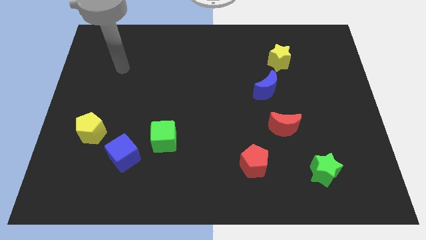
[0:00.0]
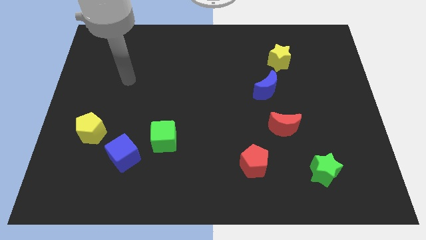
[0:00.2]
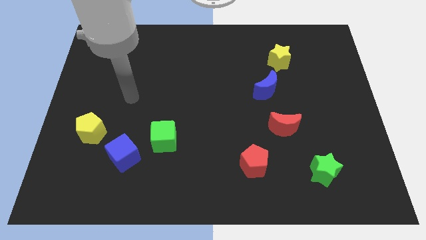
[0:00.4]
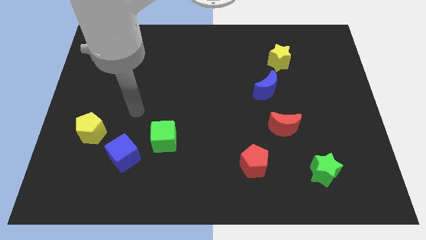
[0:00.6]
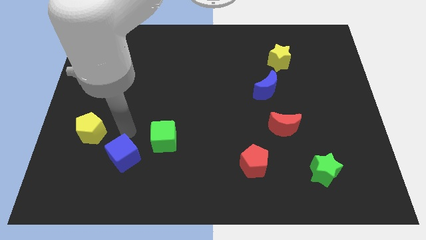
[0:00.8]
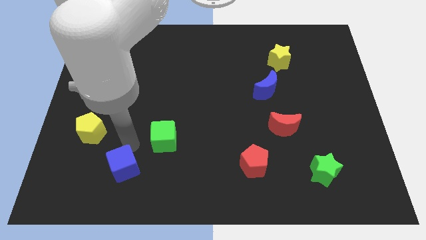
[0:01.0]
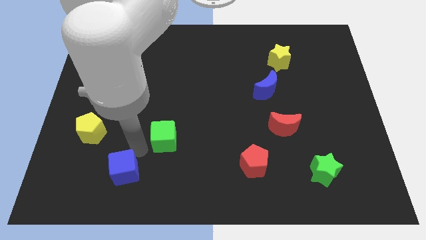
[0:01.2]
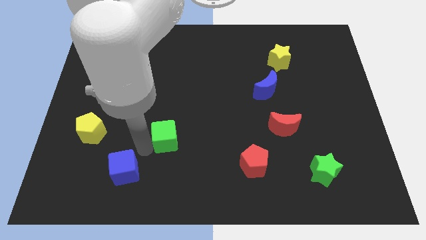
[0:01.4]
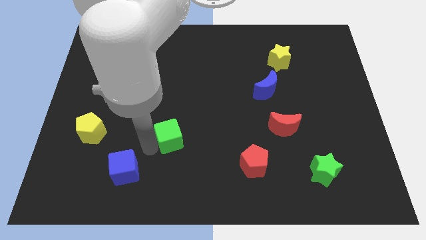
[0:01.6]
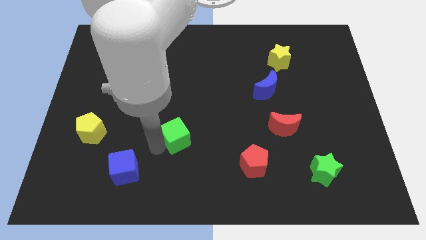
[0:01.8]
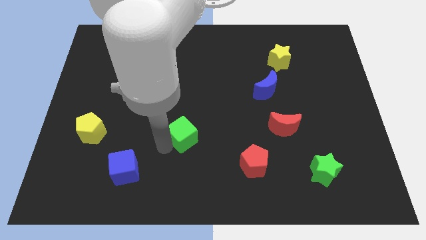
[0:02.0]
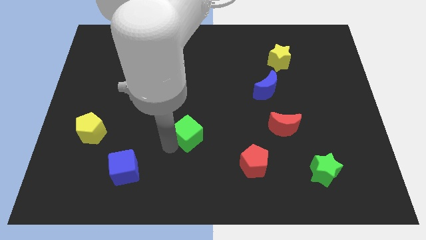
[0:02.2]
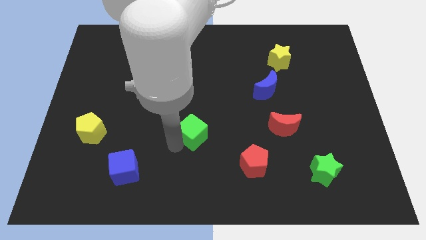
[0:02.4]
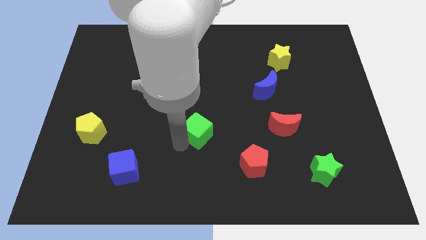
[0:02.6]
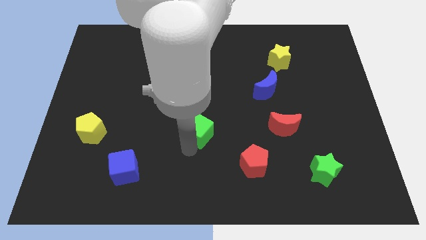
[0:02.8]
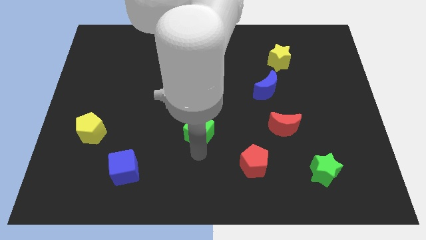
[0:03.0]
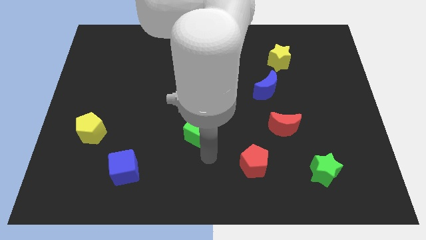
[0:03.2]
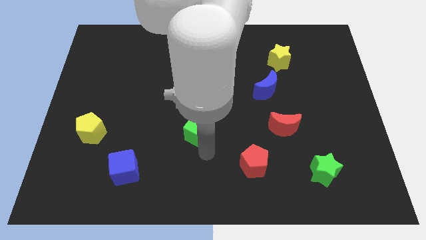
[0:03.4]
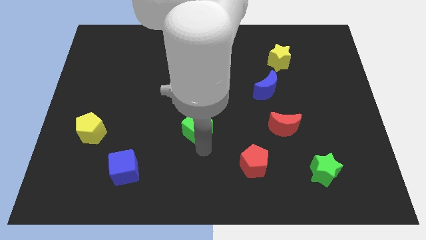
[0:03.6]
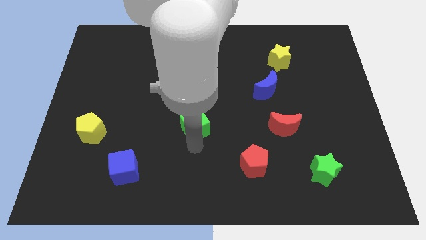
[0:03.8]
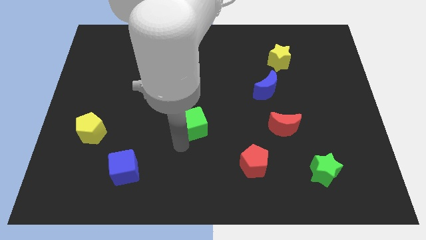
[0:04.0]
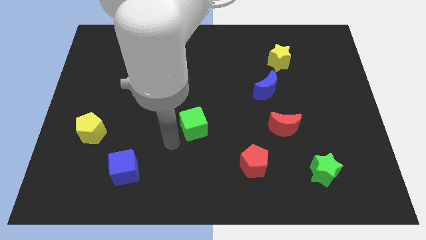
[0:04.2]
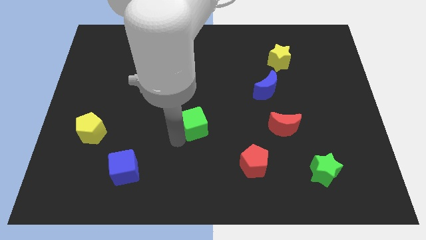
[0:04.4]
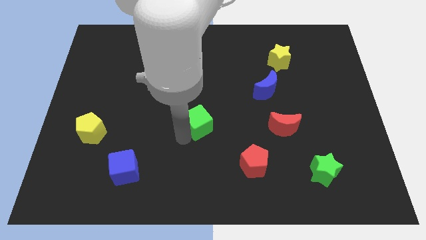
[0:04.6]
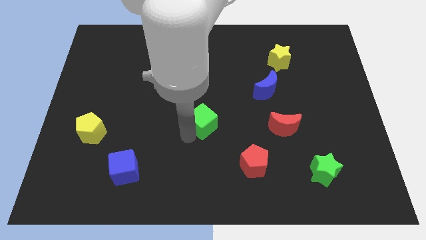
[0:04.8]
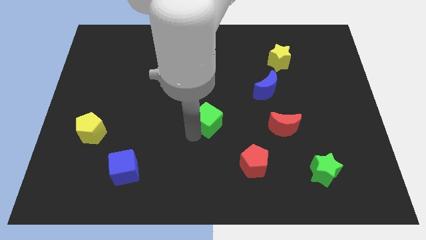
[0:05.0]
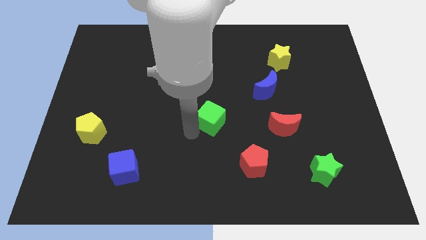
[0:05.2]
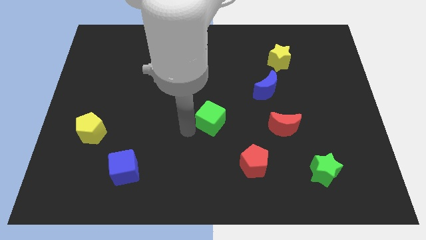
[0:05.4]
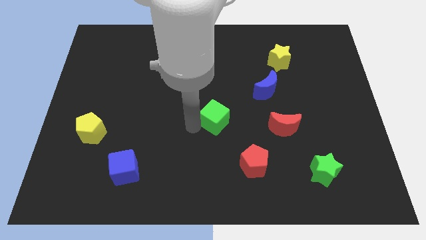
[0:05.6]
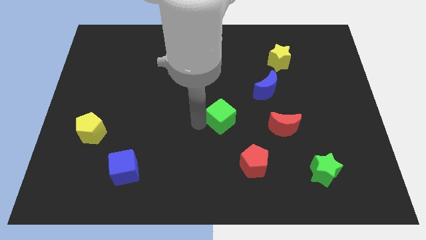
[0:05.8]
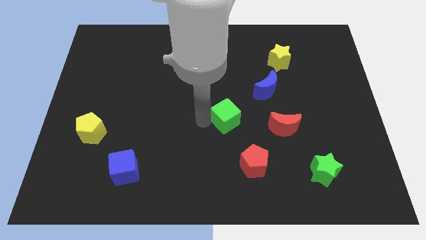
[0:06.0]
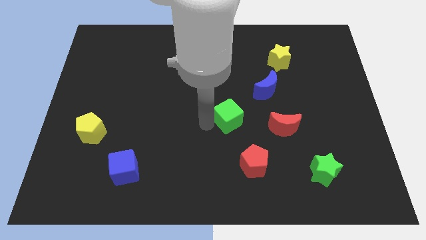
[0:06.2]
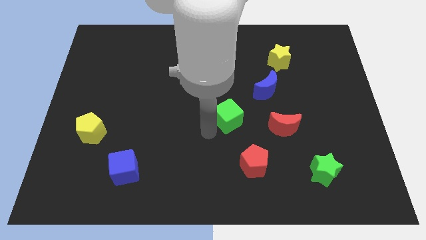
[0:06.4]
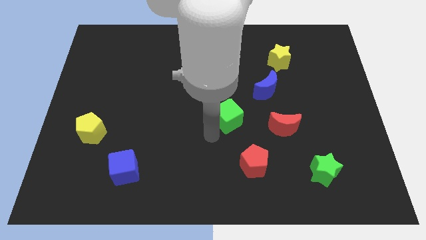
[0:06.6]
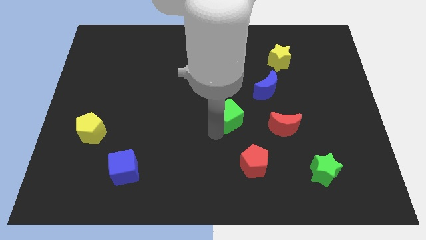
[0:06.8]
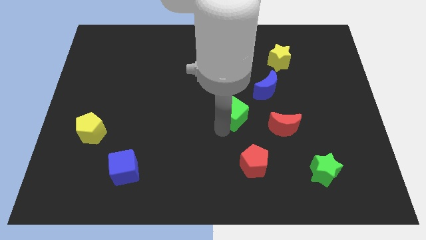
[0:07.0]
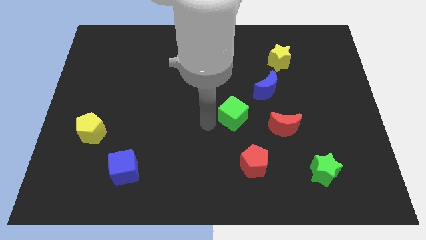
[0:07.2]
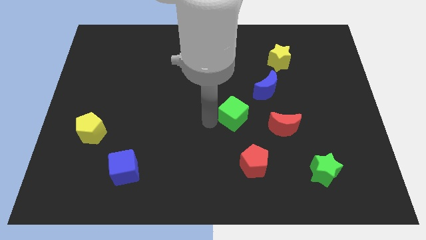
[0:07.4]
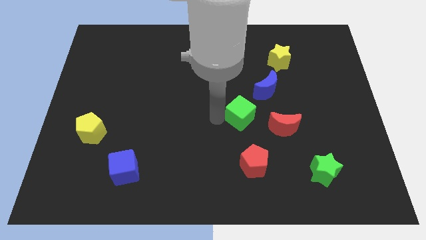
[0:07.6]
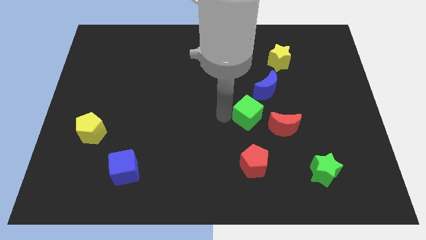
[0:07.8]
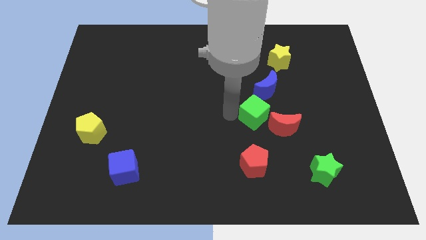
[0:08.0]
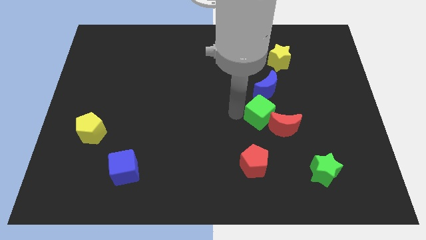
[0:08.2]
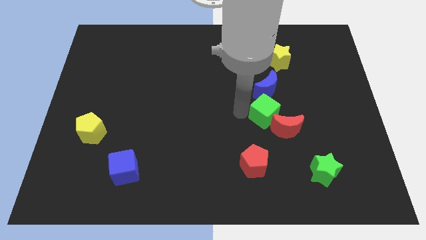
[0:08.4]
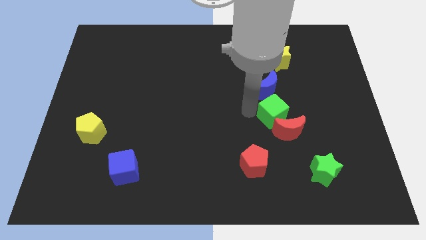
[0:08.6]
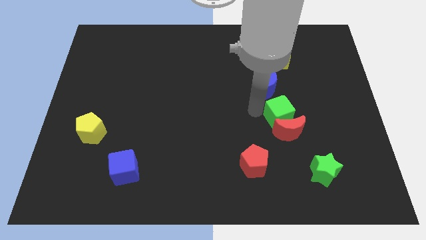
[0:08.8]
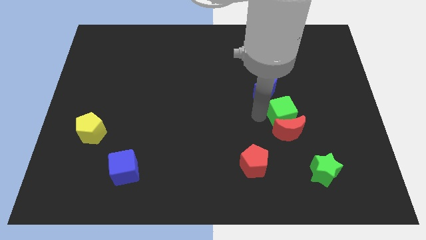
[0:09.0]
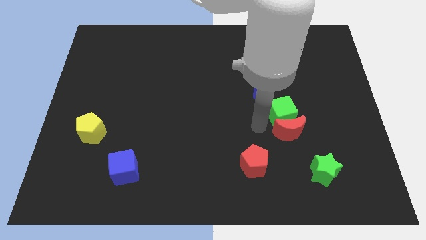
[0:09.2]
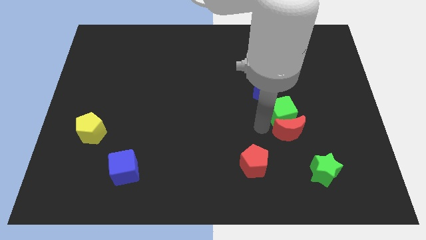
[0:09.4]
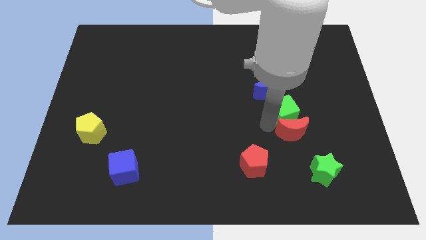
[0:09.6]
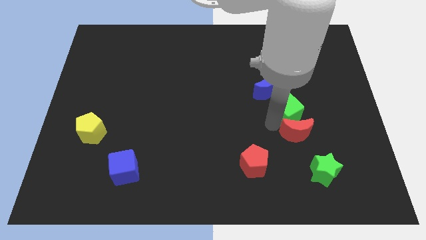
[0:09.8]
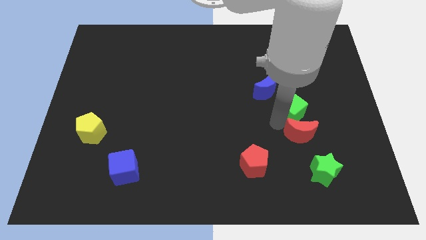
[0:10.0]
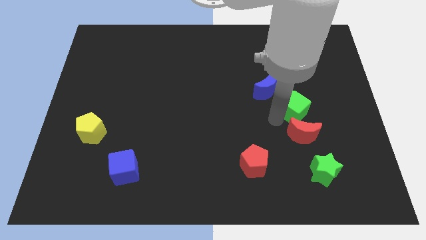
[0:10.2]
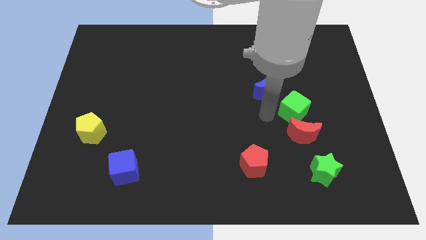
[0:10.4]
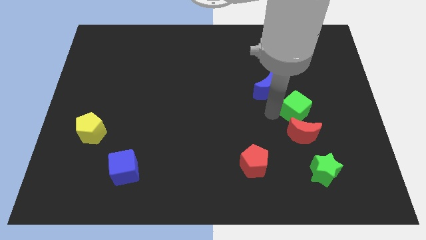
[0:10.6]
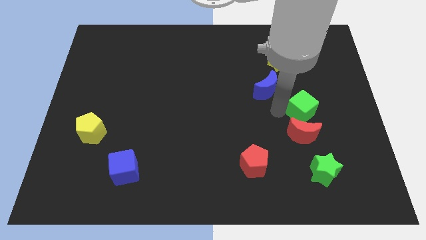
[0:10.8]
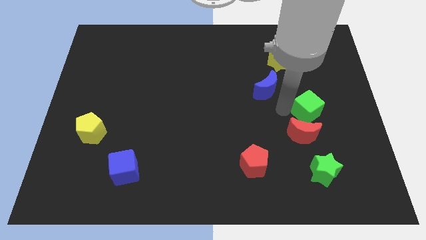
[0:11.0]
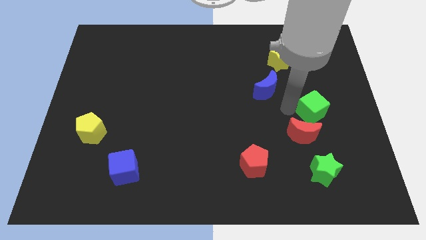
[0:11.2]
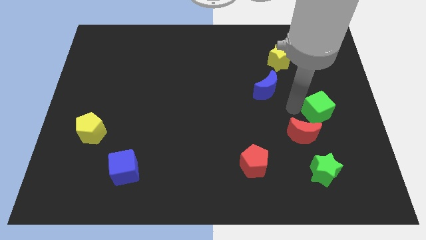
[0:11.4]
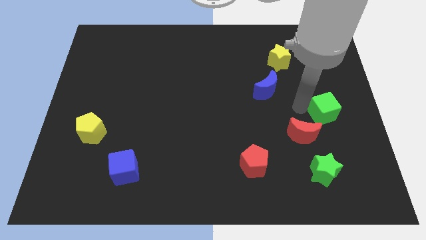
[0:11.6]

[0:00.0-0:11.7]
slide the green cube to the center right

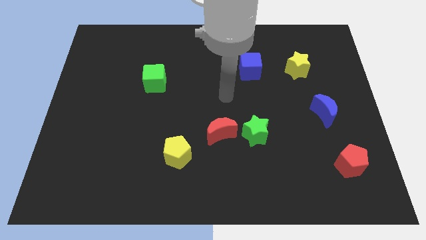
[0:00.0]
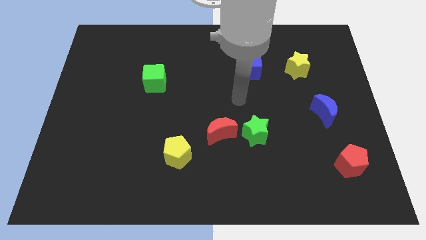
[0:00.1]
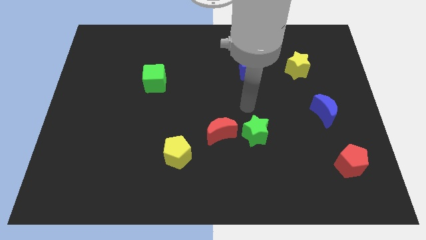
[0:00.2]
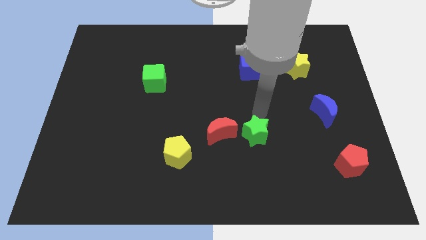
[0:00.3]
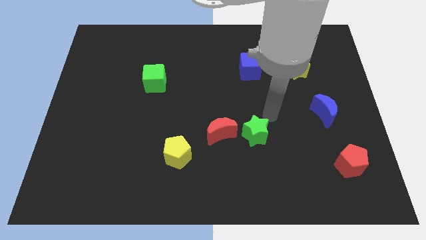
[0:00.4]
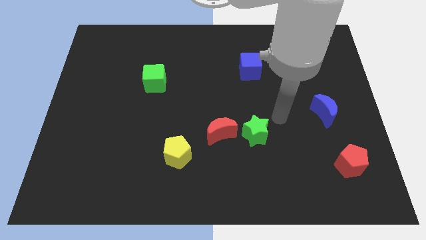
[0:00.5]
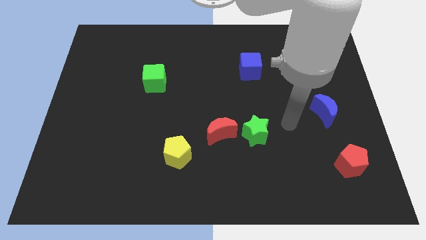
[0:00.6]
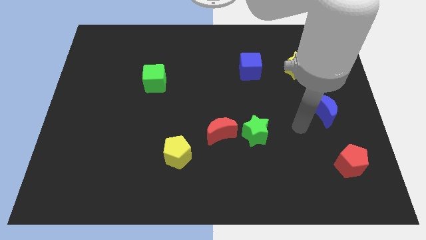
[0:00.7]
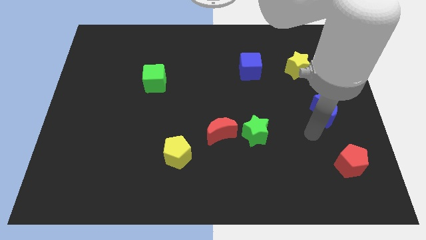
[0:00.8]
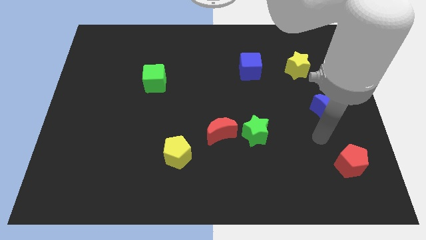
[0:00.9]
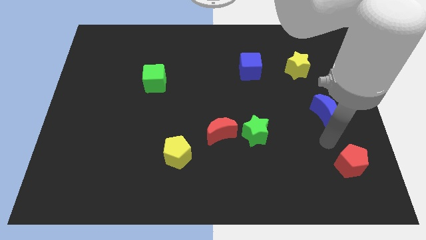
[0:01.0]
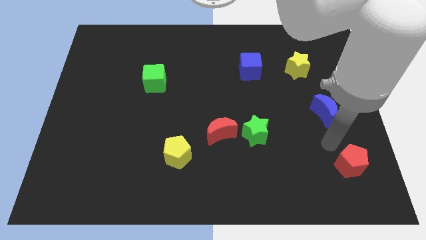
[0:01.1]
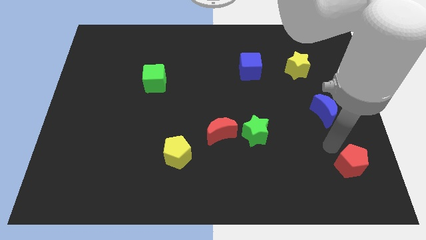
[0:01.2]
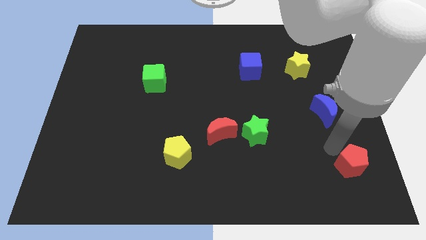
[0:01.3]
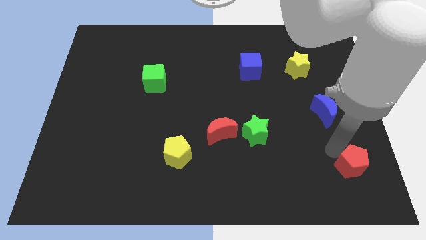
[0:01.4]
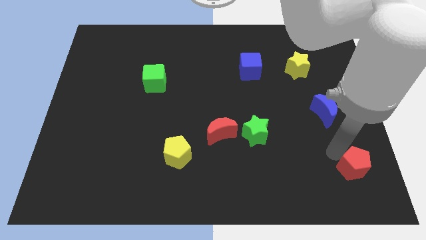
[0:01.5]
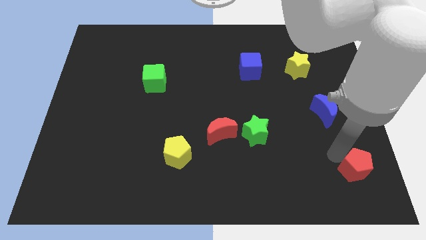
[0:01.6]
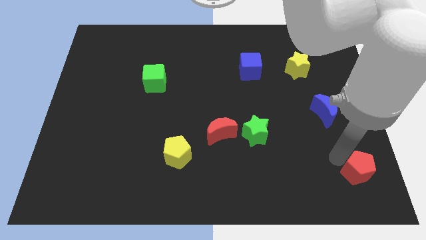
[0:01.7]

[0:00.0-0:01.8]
slide the red pentagon to the bottom right corner

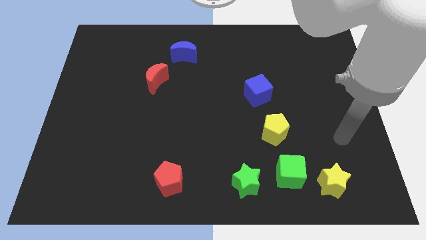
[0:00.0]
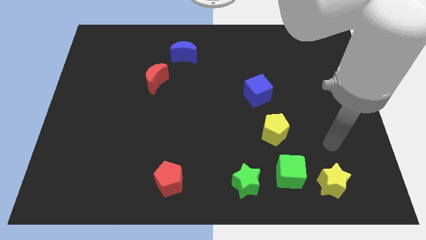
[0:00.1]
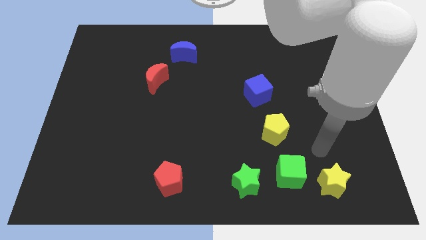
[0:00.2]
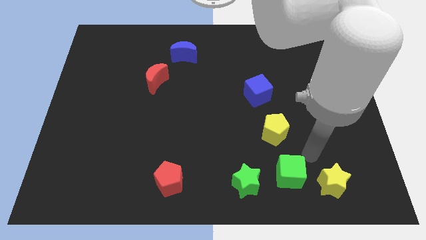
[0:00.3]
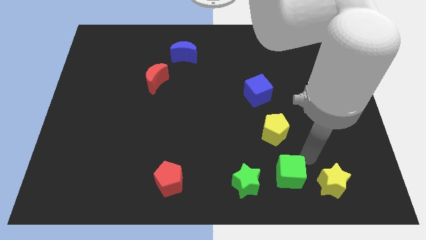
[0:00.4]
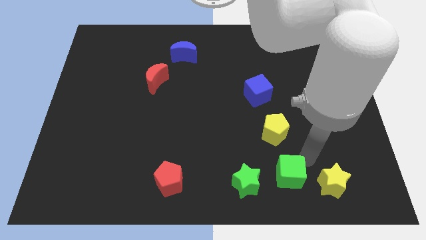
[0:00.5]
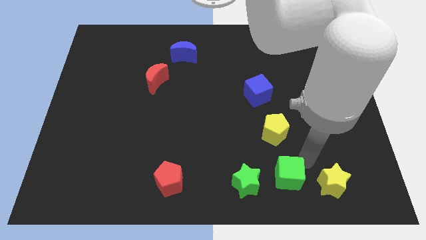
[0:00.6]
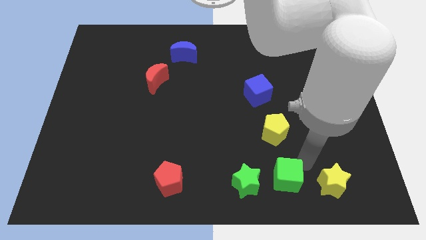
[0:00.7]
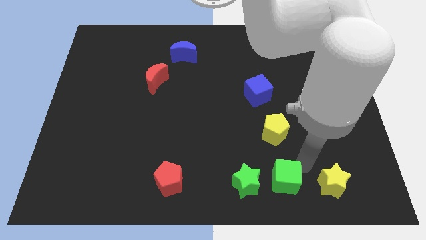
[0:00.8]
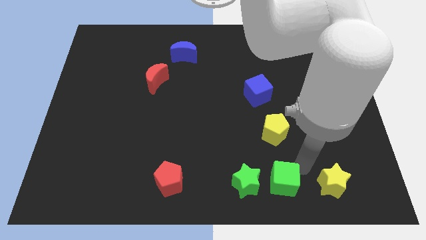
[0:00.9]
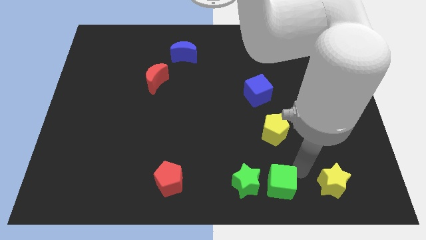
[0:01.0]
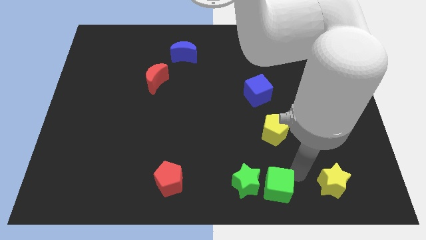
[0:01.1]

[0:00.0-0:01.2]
put the green cube to the bottom side
